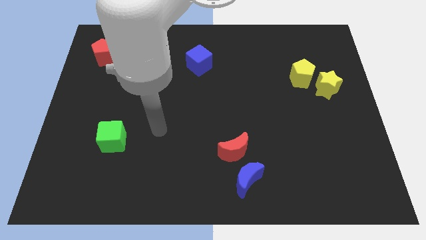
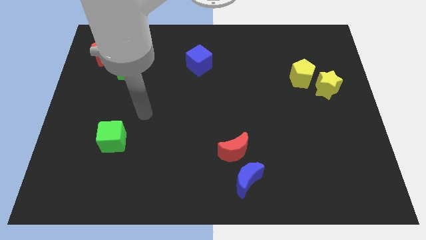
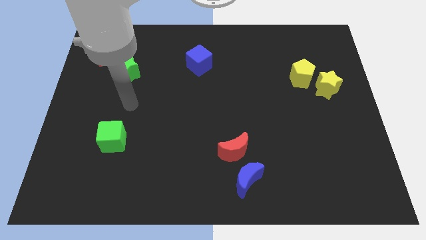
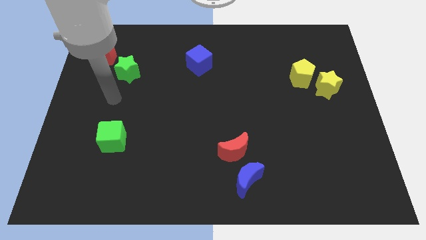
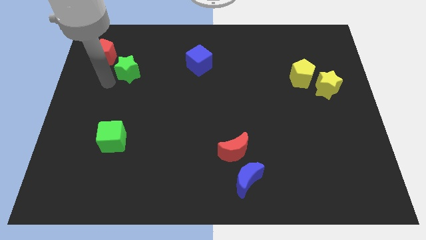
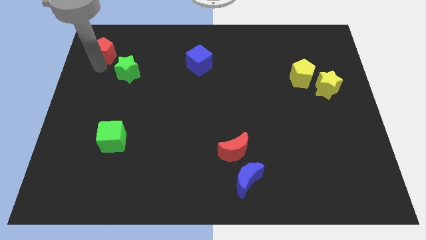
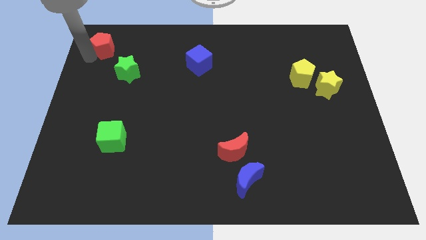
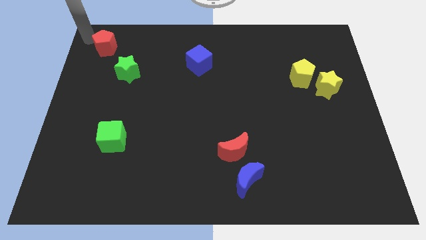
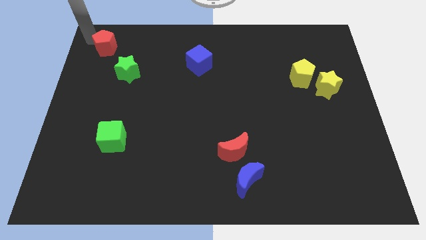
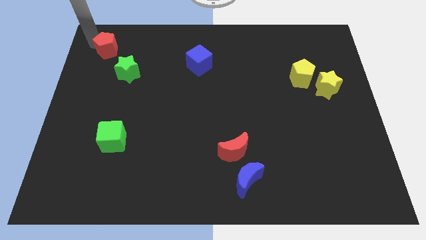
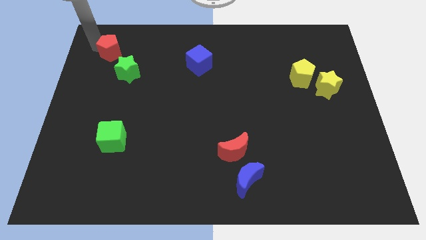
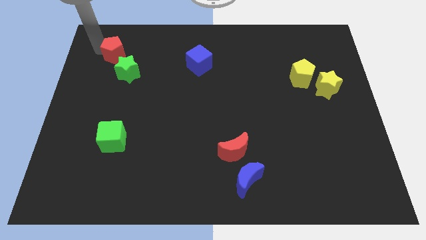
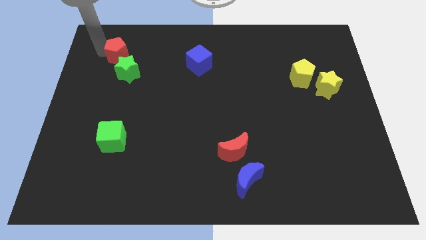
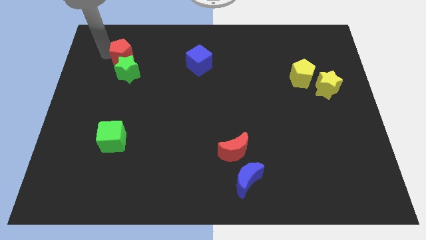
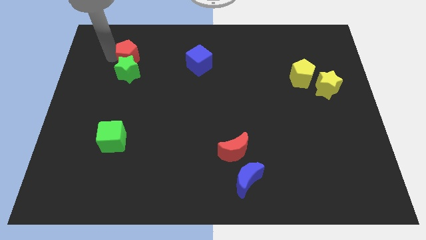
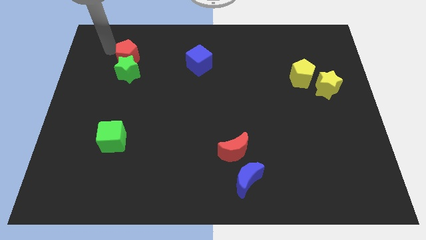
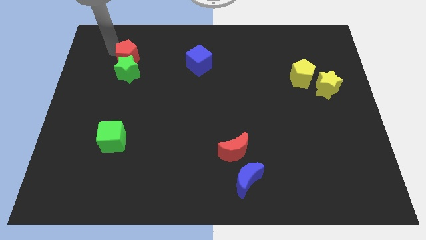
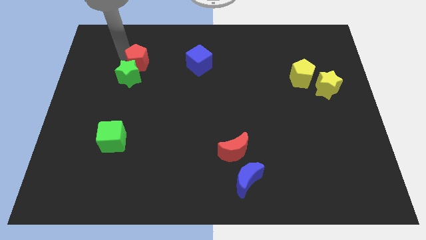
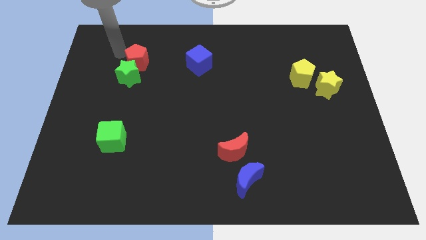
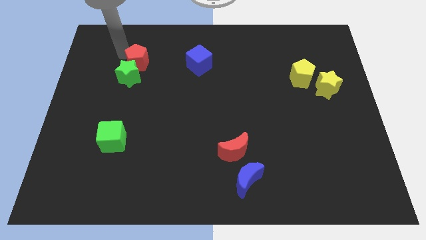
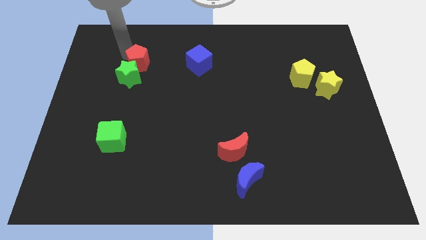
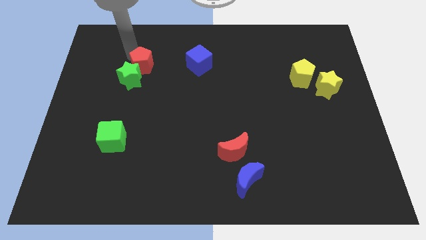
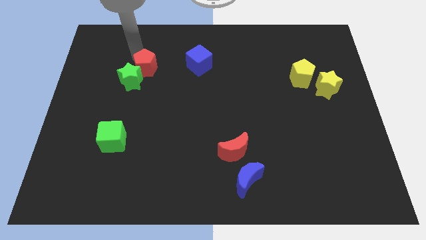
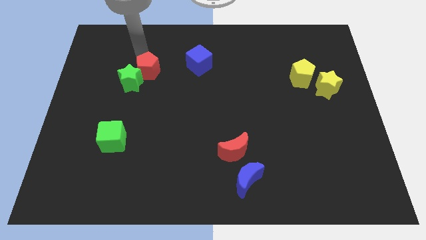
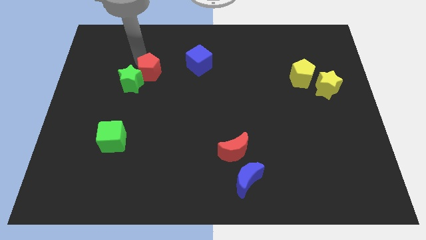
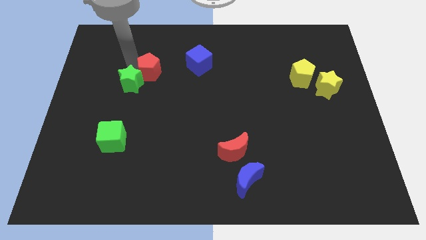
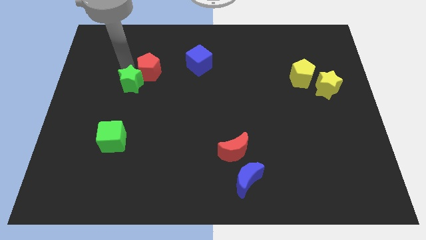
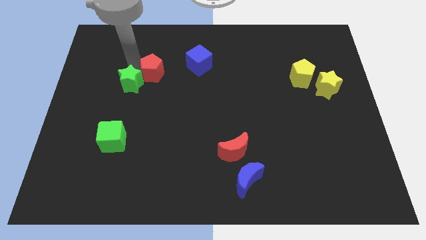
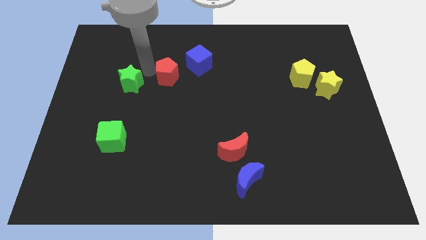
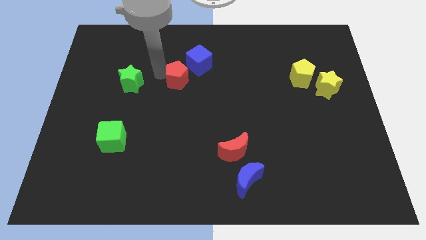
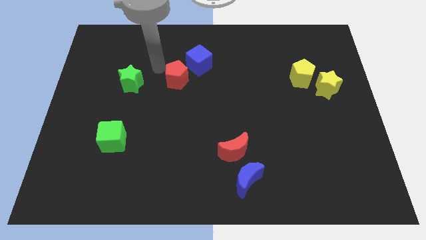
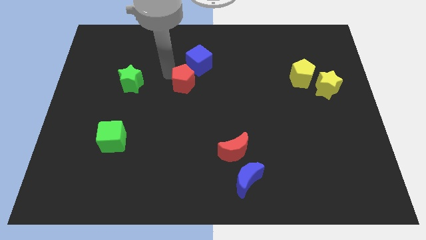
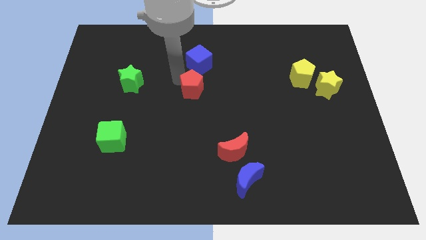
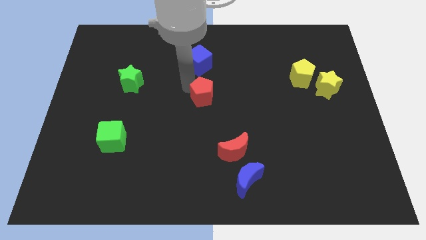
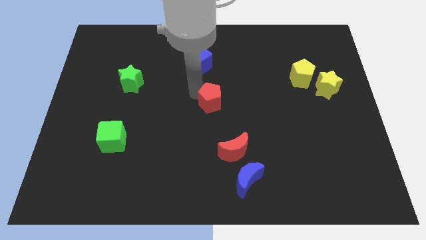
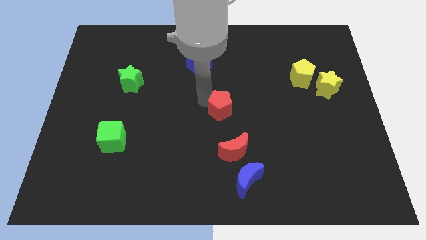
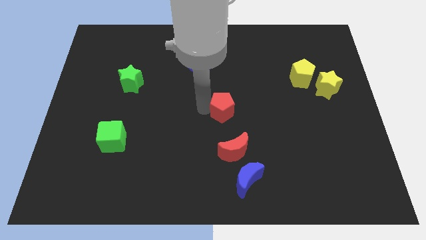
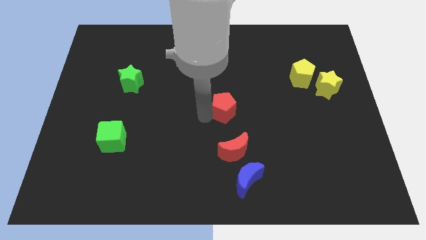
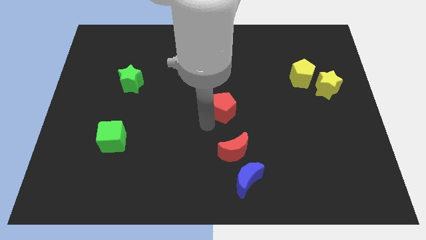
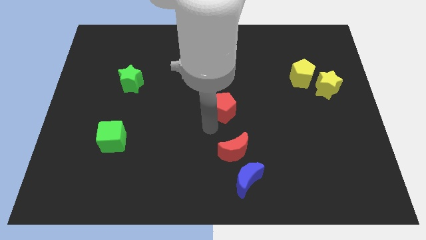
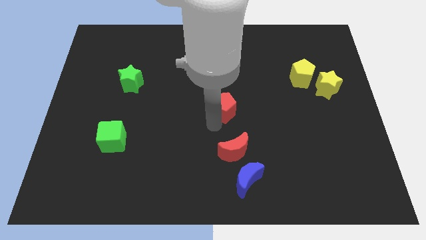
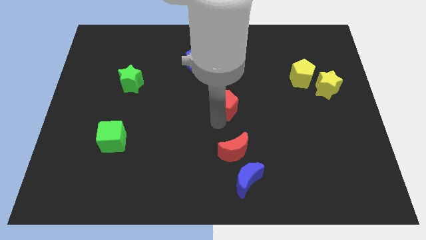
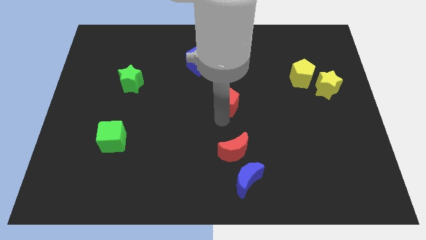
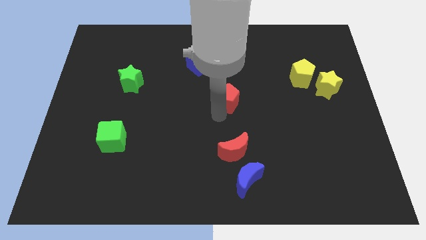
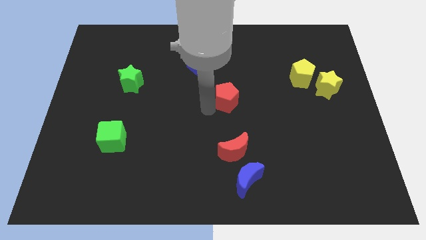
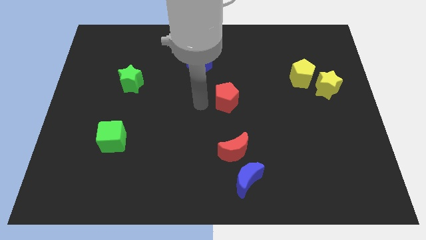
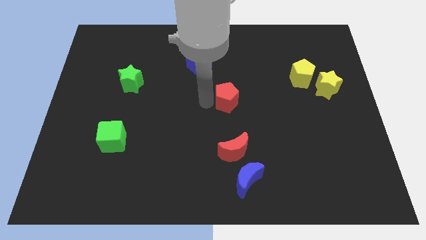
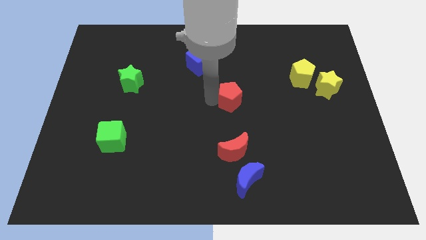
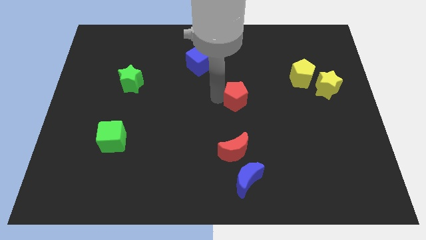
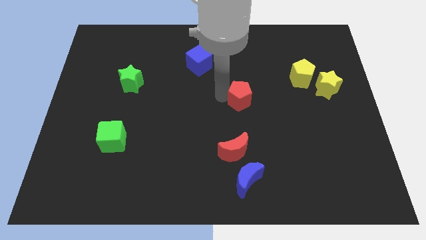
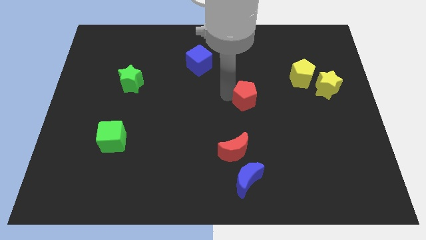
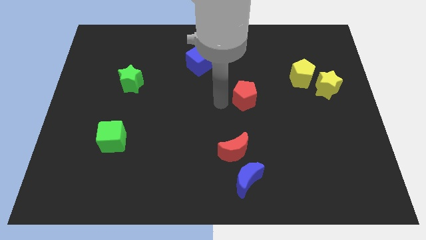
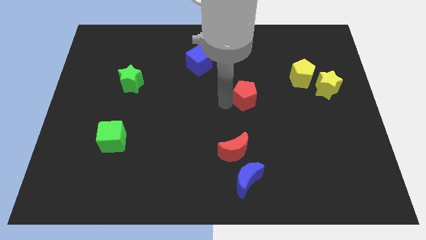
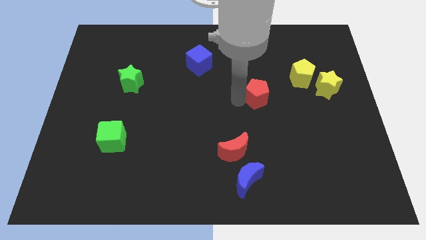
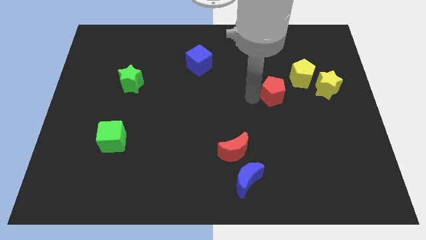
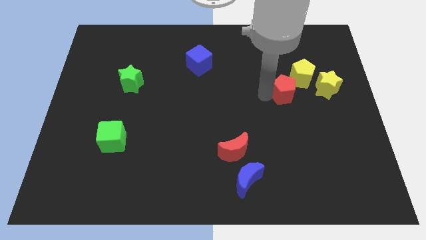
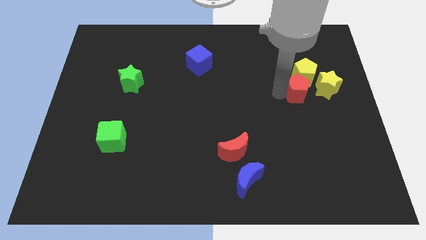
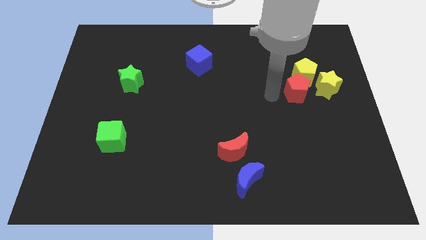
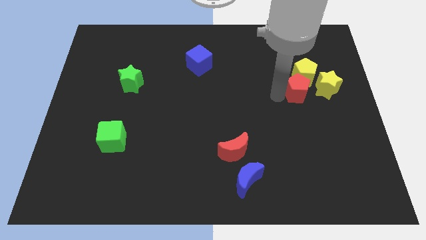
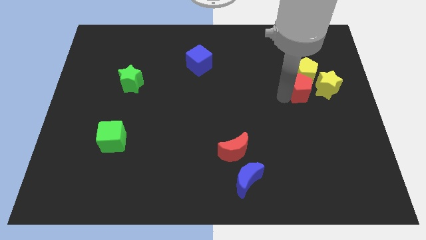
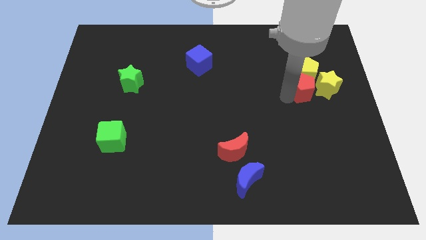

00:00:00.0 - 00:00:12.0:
slide the red pentagon next to the yellow star

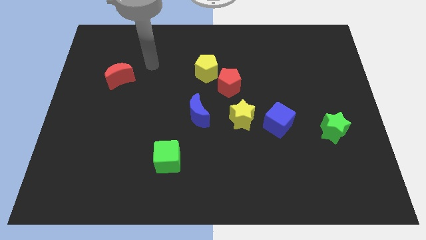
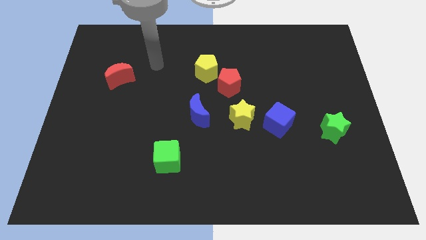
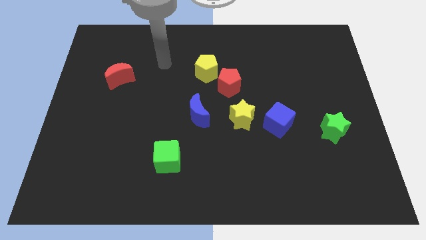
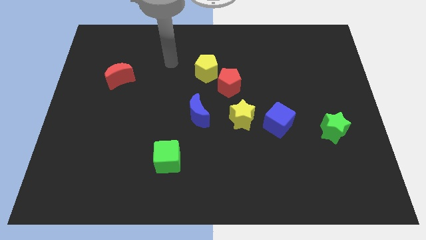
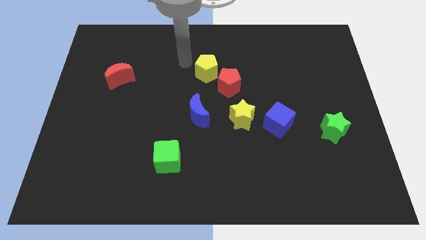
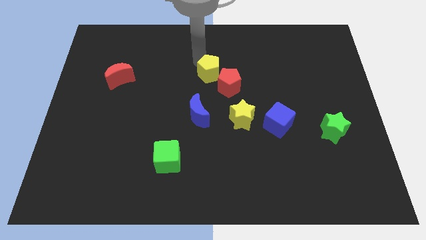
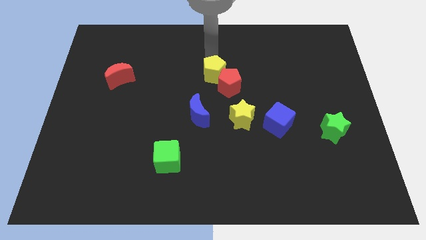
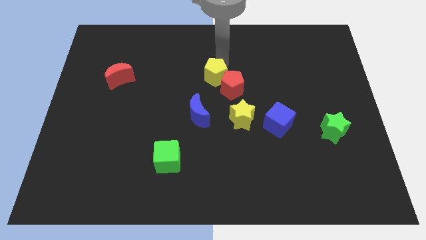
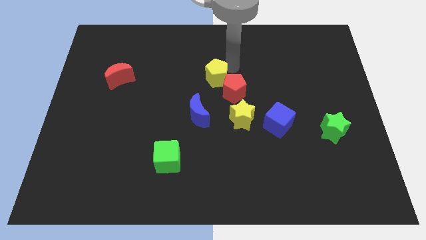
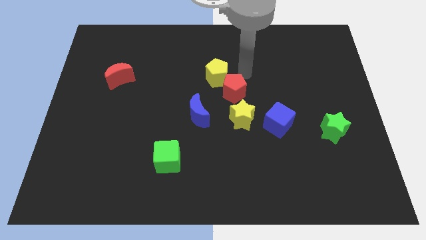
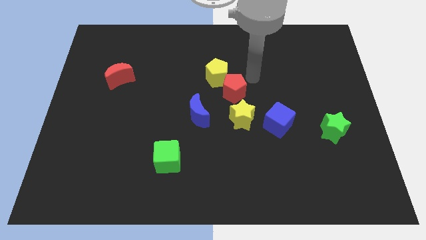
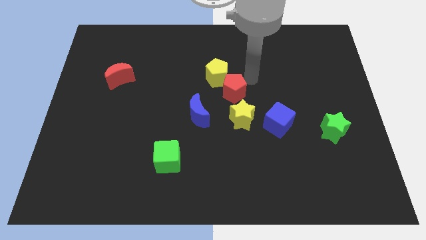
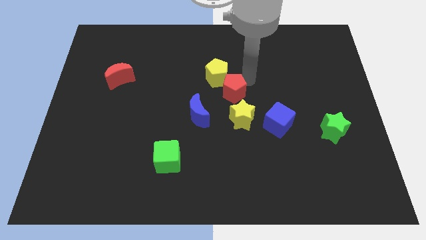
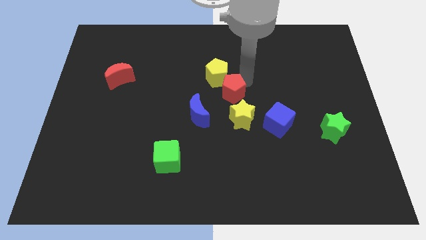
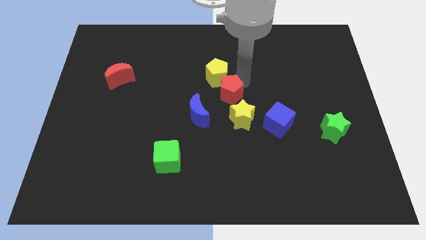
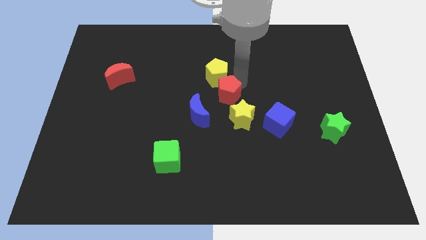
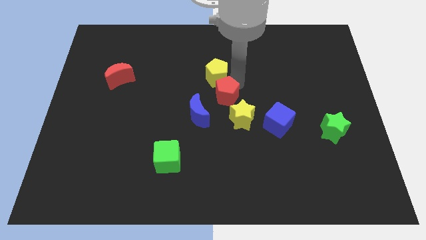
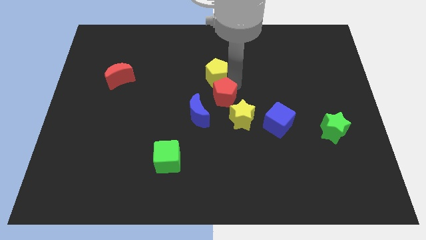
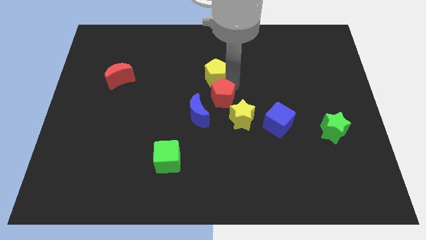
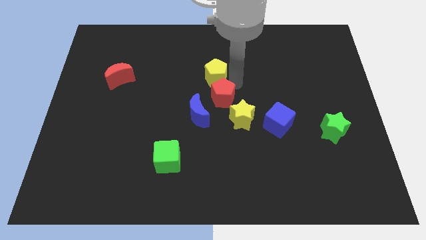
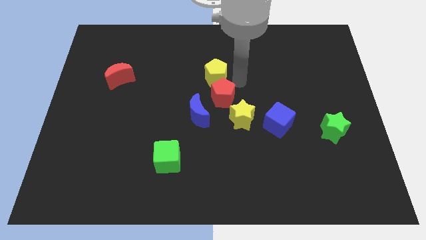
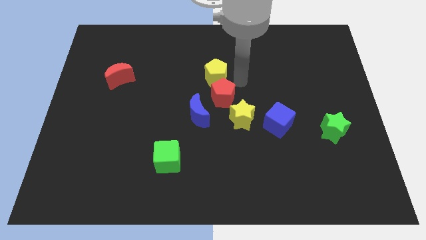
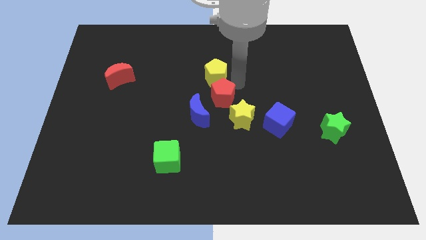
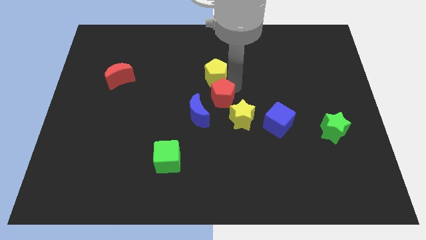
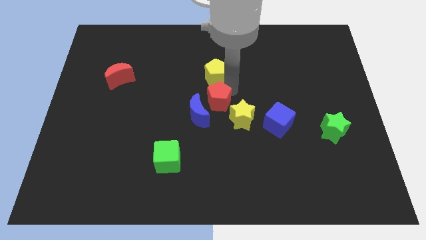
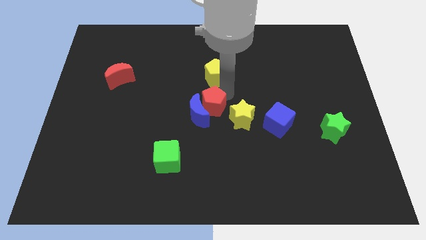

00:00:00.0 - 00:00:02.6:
push the red pentagon close to the blue moon
